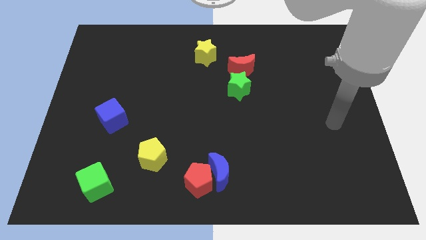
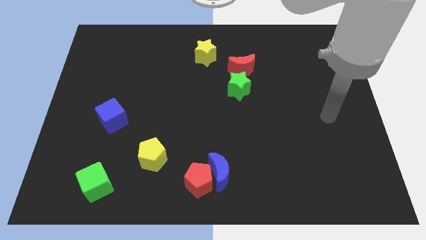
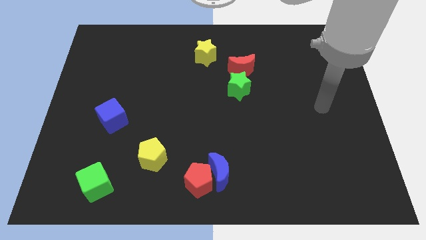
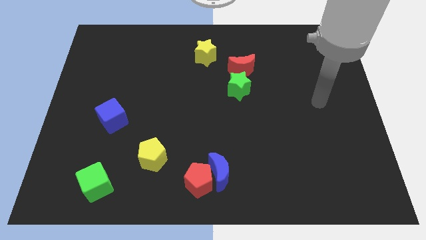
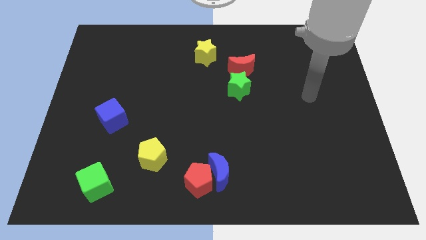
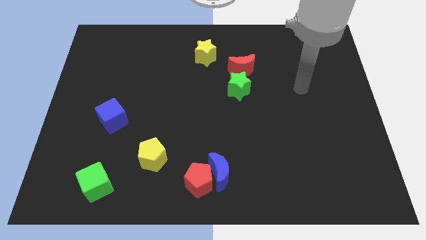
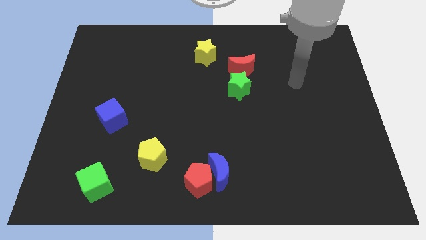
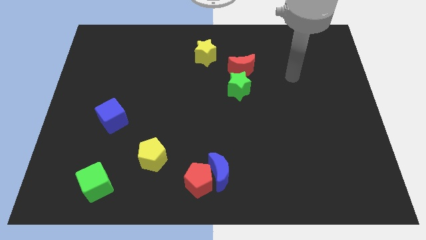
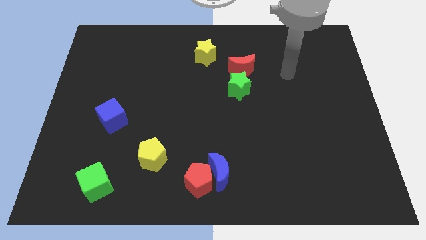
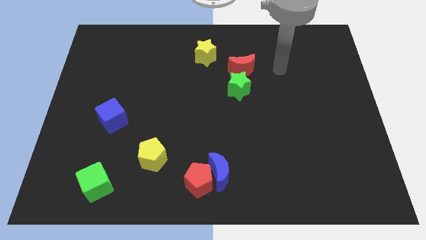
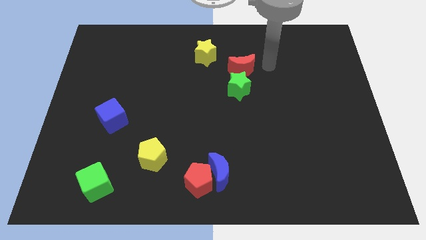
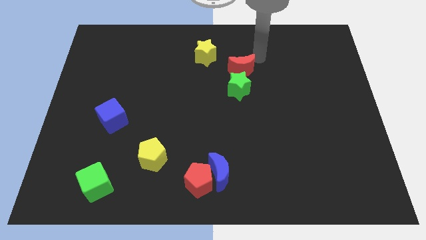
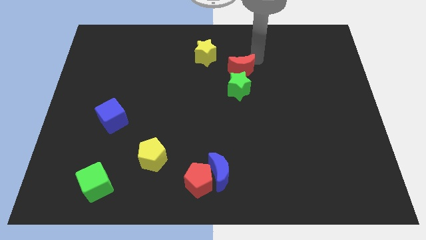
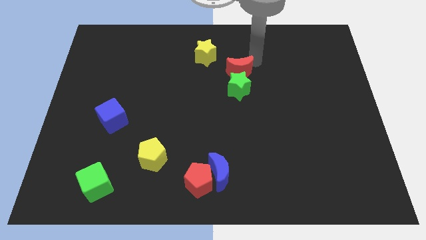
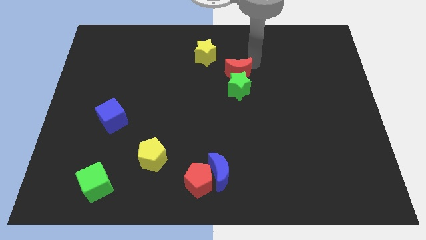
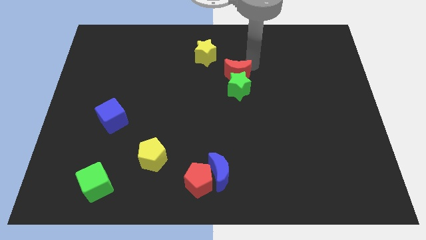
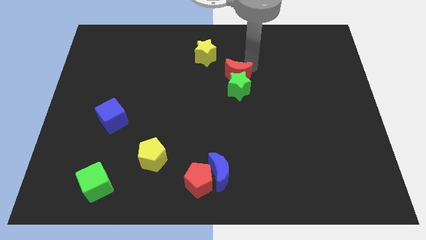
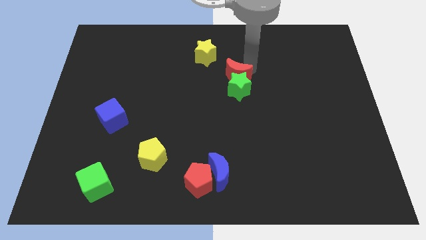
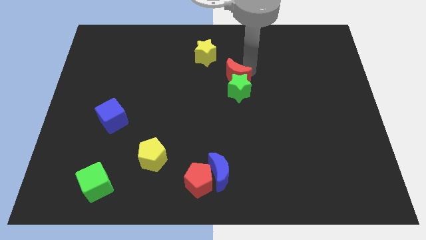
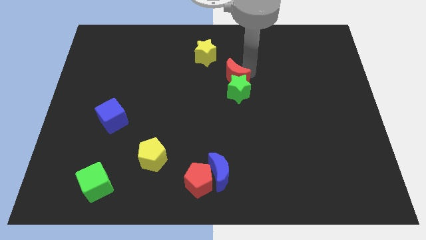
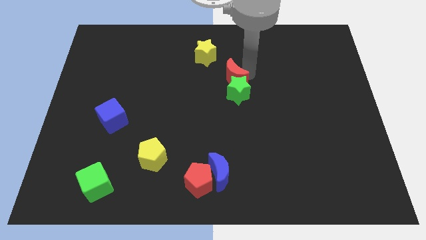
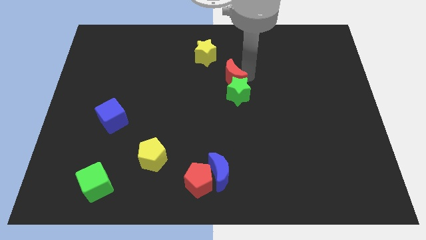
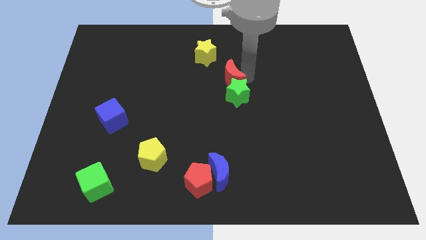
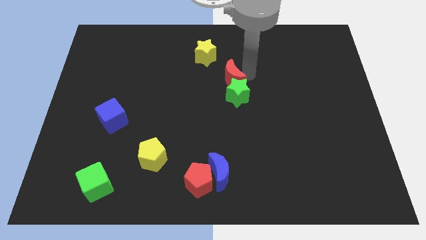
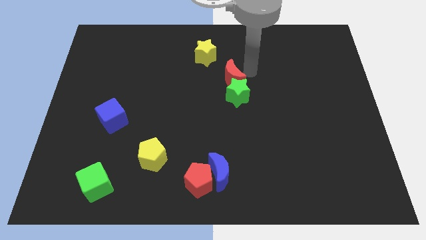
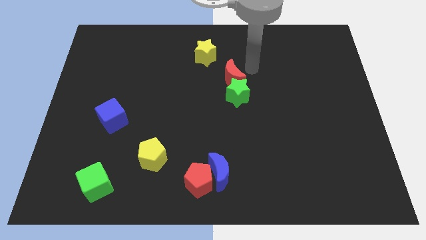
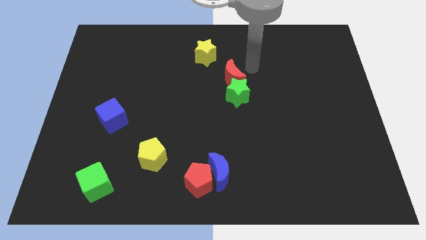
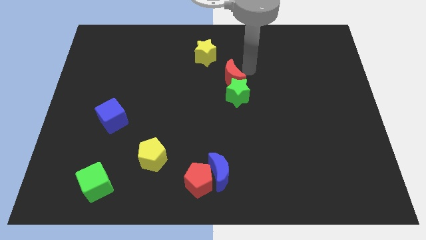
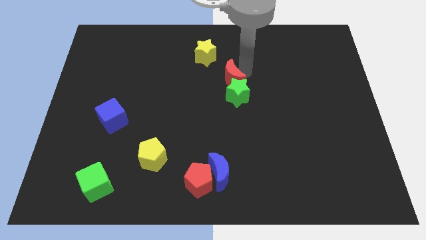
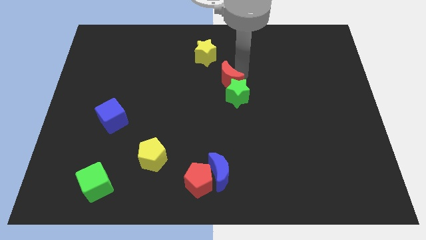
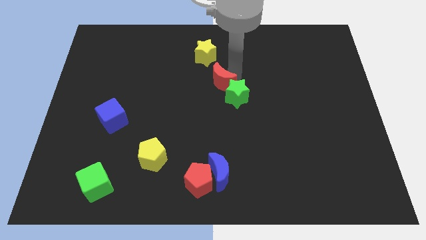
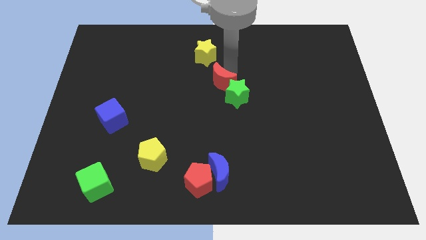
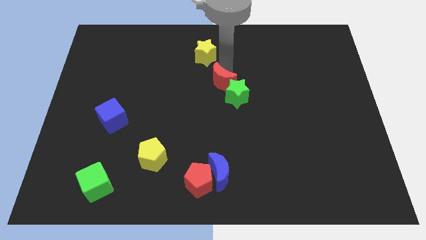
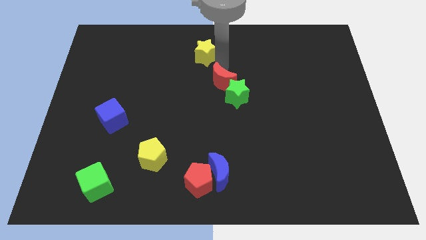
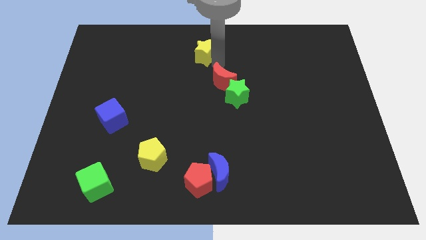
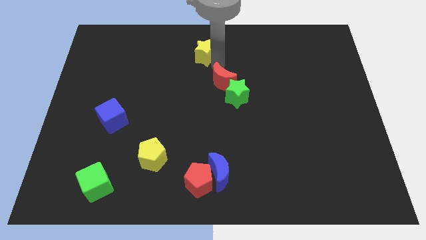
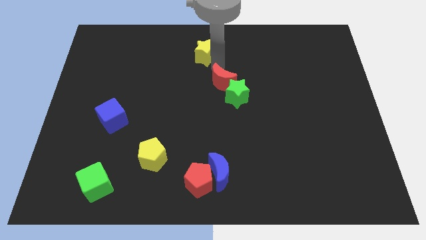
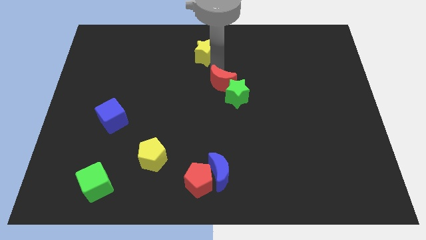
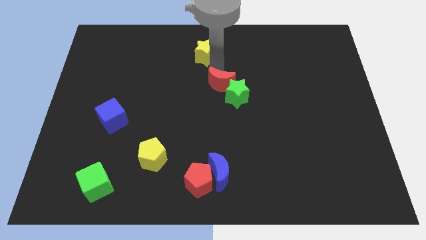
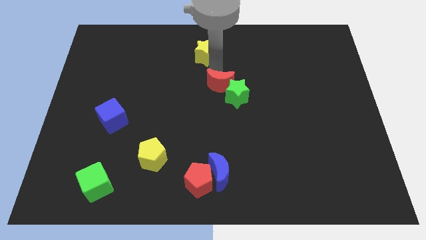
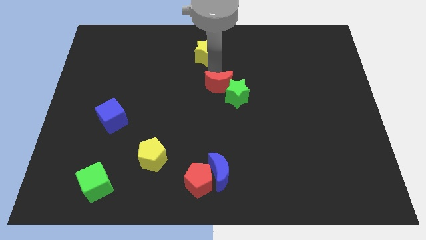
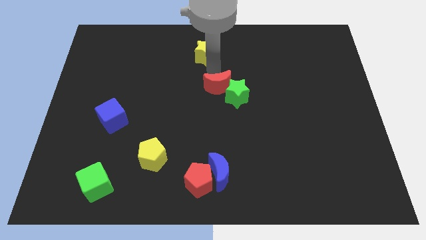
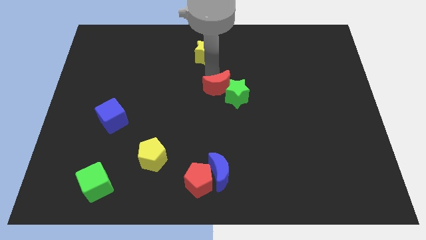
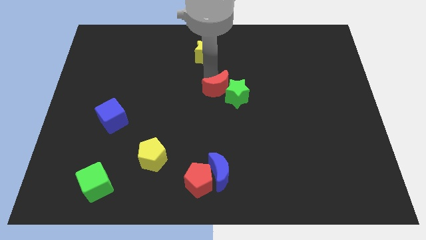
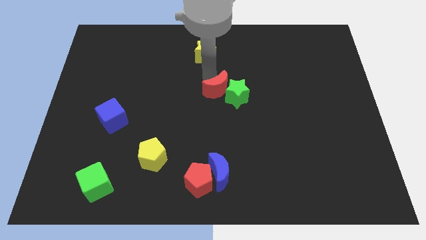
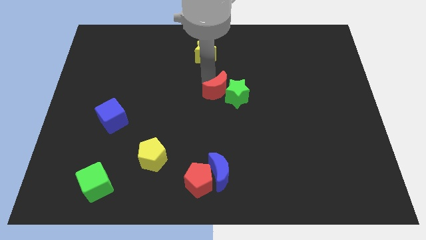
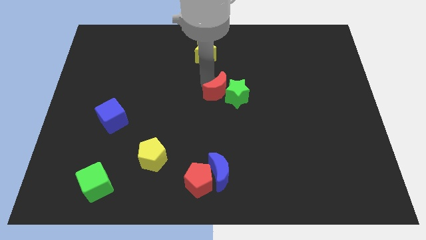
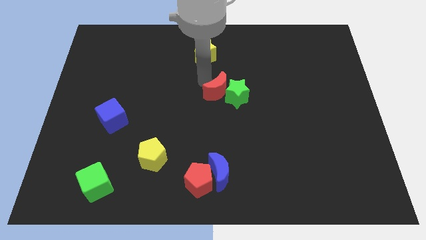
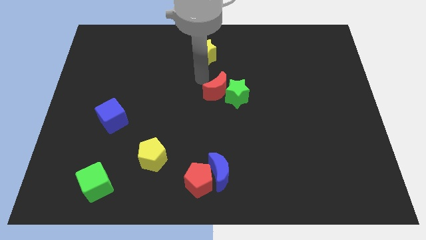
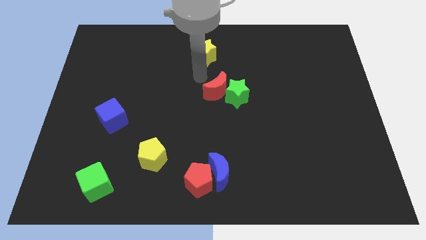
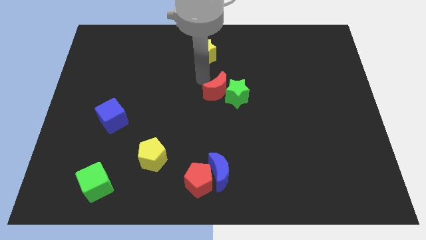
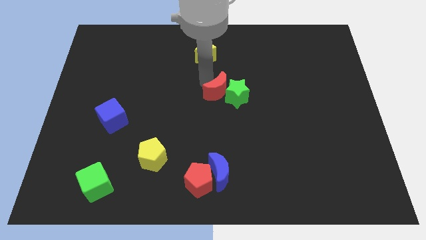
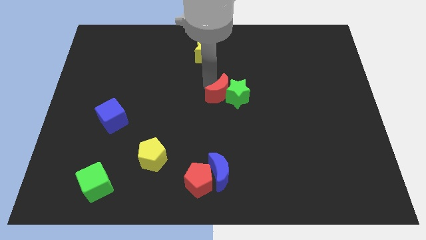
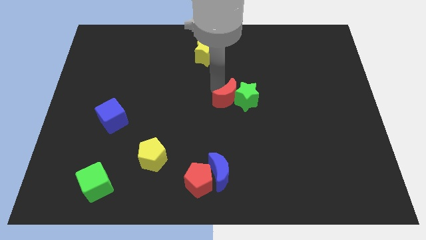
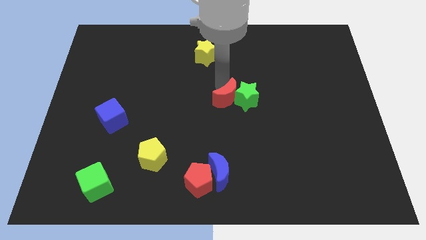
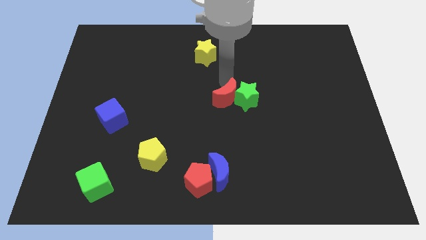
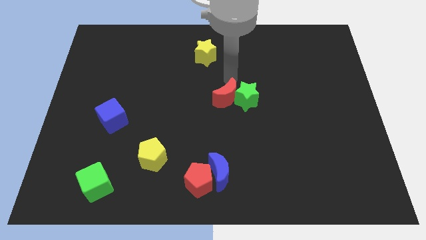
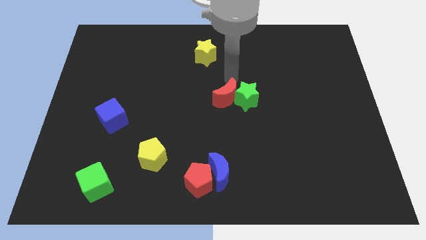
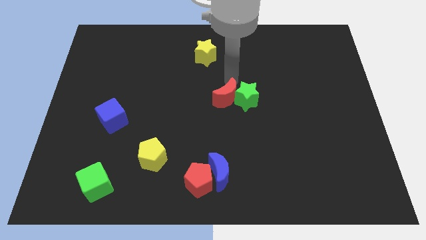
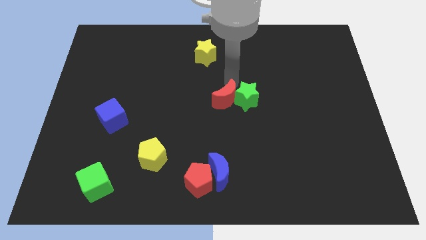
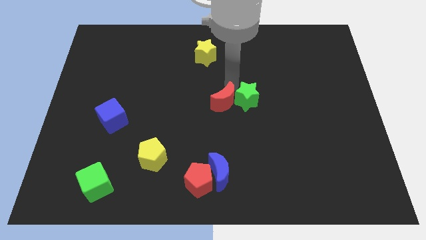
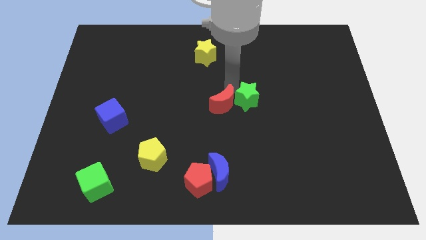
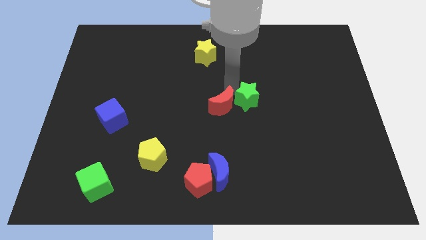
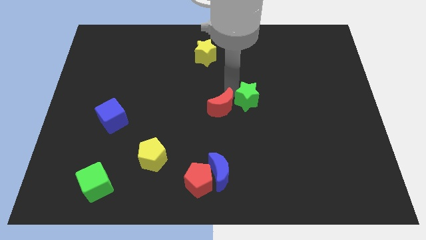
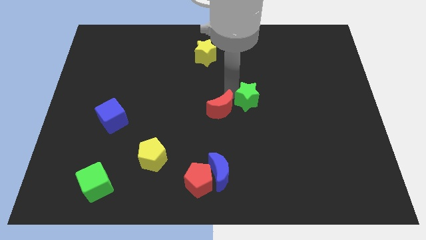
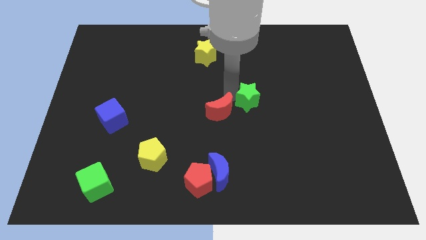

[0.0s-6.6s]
push the red moon to the top of the blue moon

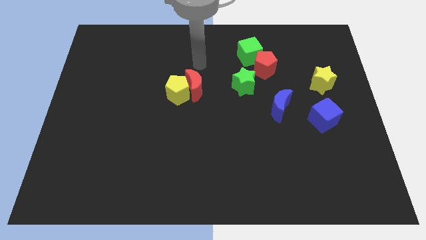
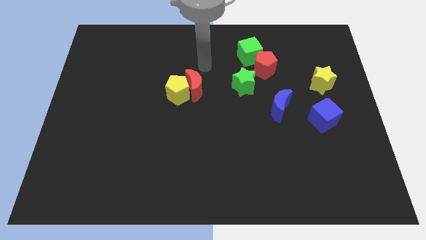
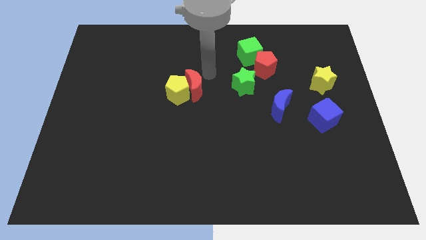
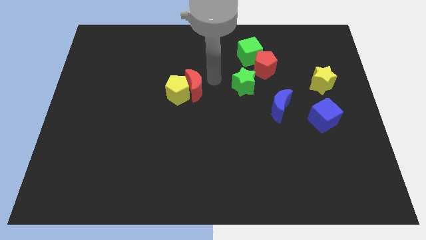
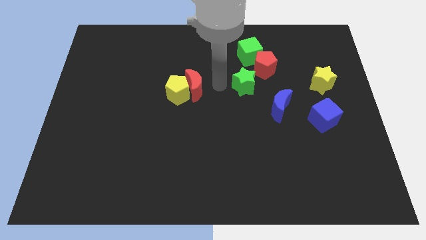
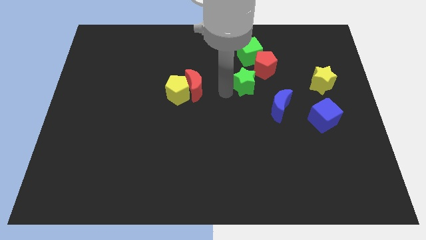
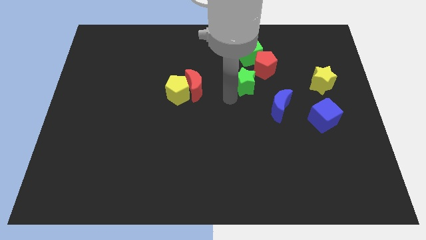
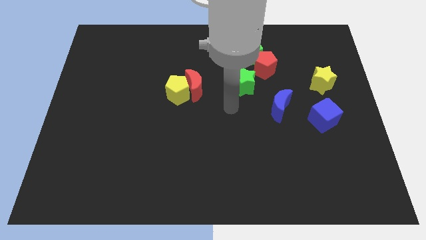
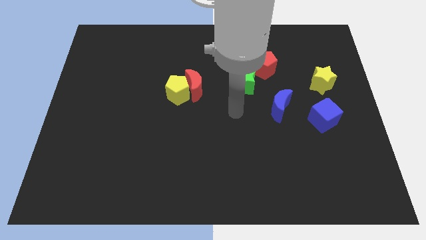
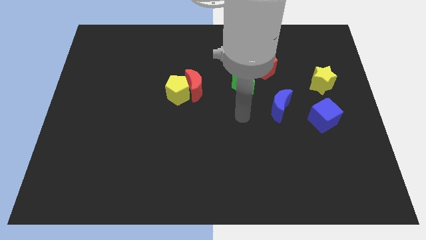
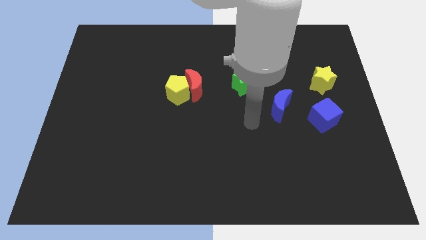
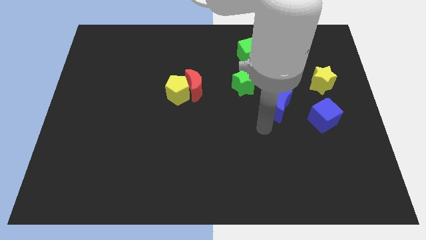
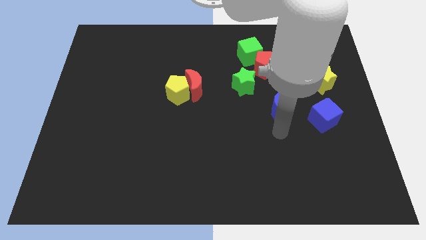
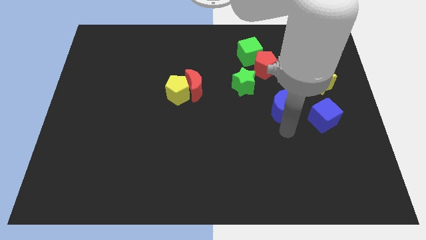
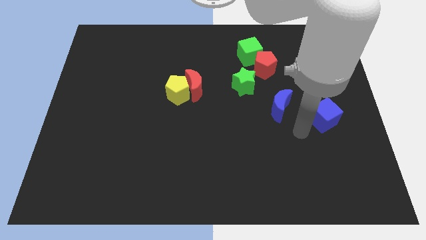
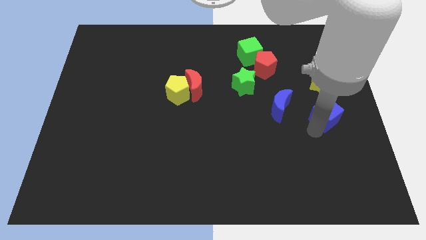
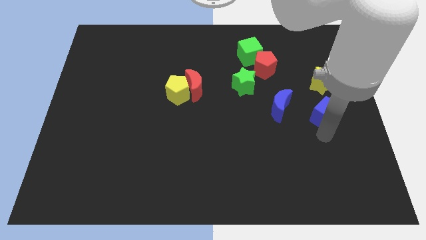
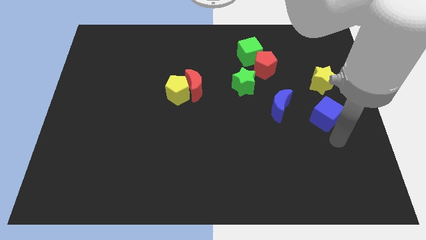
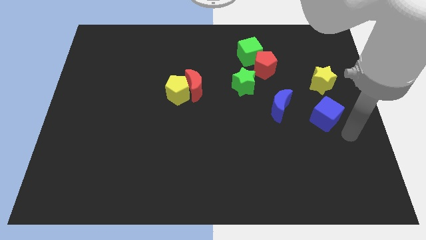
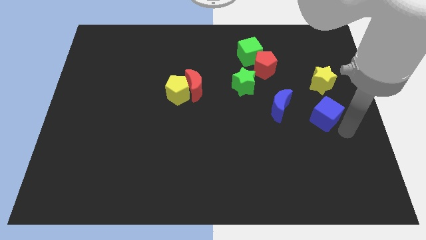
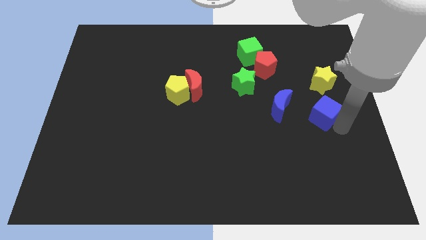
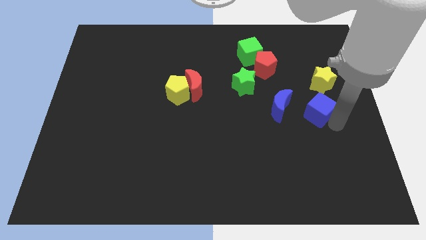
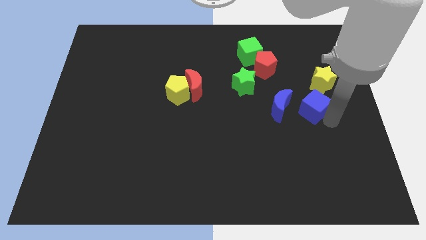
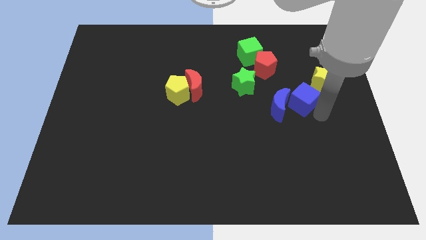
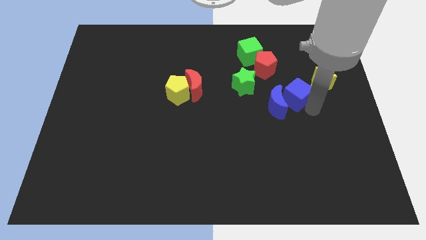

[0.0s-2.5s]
put the blue cube to the left side of the yellow star
